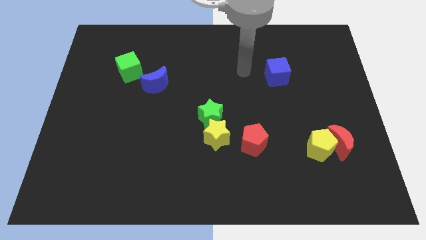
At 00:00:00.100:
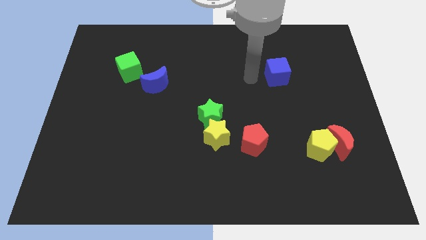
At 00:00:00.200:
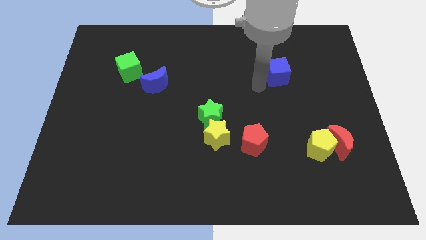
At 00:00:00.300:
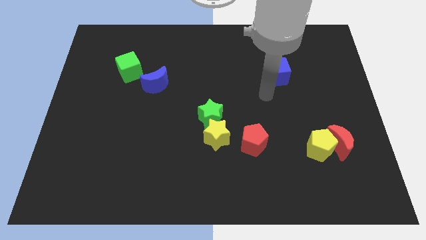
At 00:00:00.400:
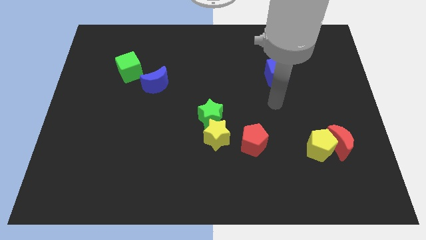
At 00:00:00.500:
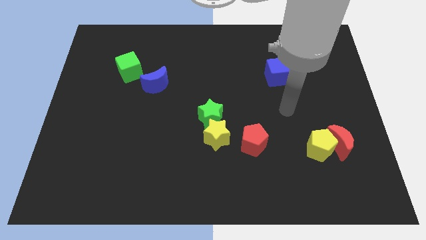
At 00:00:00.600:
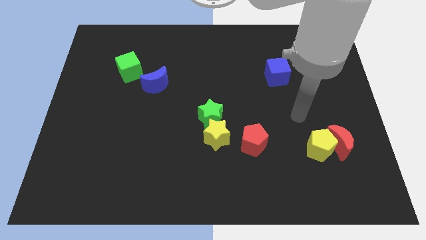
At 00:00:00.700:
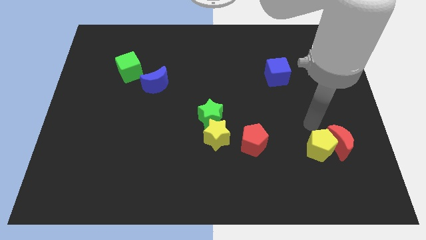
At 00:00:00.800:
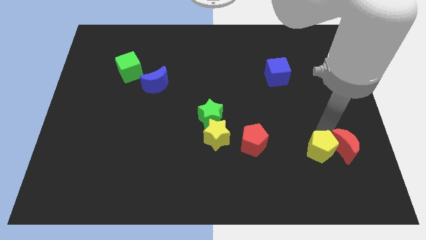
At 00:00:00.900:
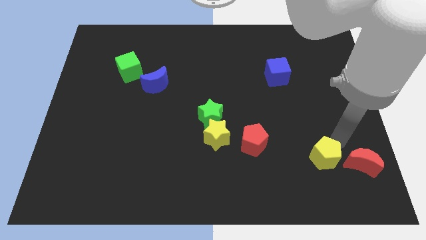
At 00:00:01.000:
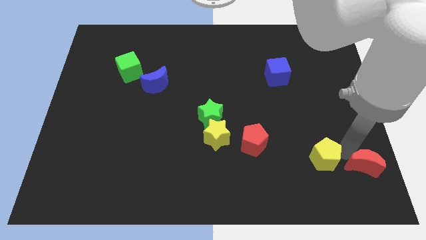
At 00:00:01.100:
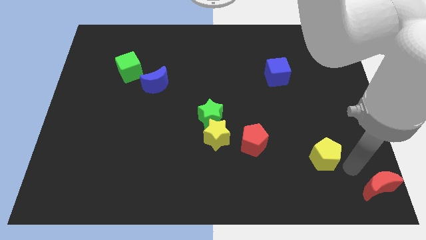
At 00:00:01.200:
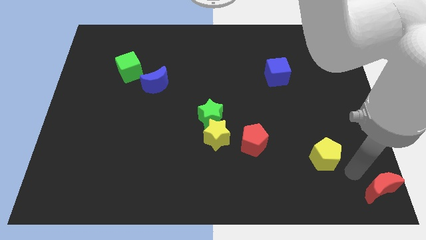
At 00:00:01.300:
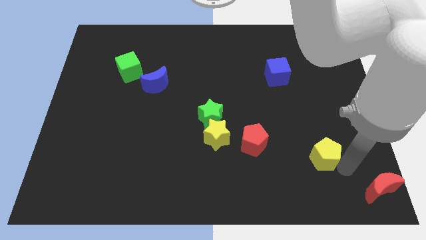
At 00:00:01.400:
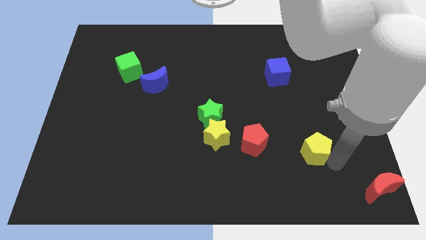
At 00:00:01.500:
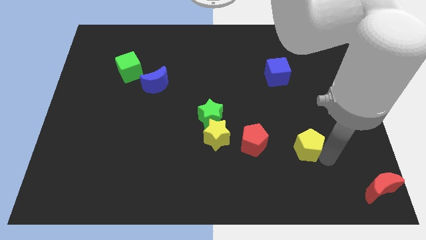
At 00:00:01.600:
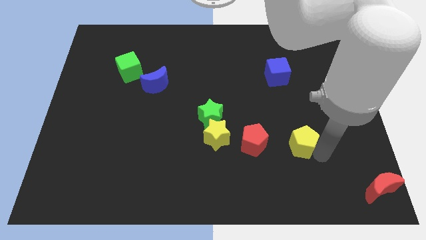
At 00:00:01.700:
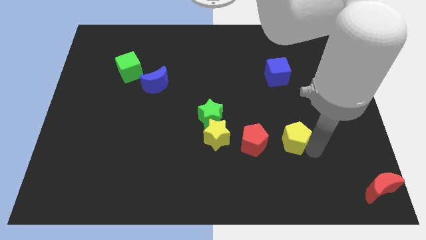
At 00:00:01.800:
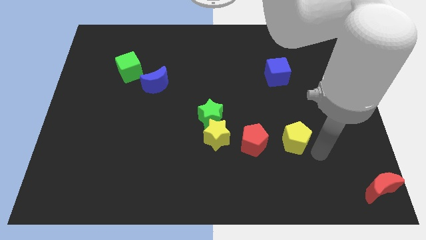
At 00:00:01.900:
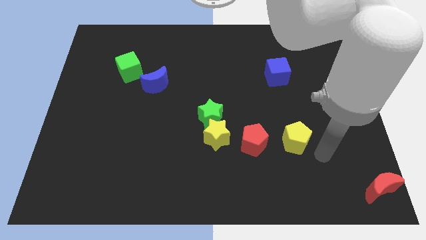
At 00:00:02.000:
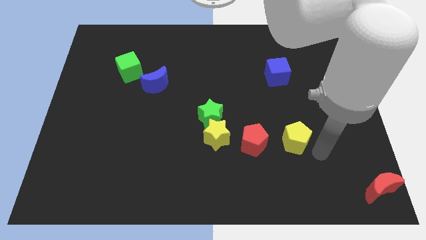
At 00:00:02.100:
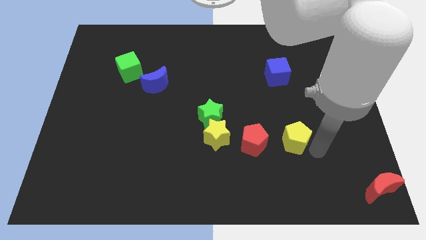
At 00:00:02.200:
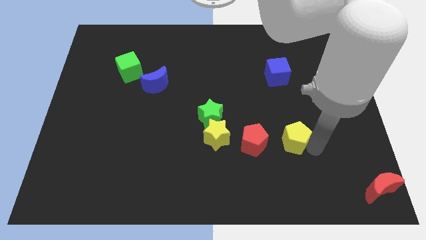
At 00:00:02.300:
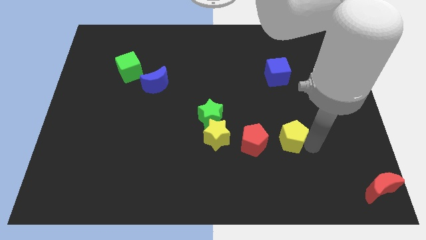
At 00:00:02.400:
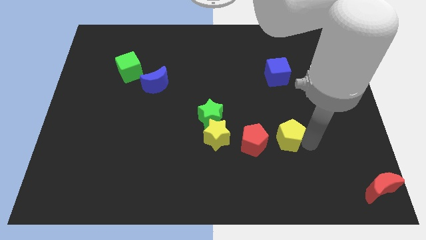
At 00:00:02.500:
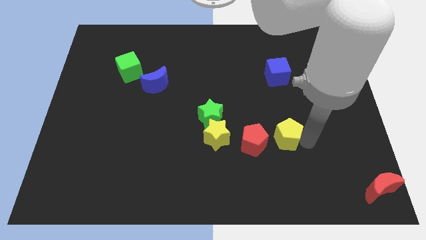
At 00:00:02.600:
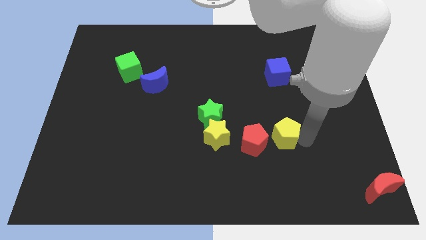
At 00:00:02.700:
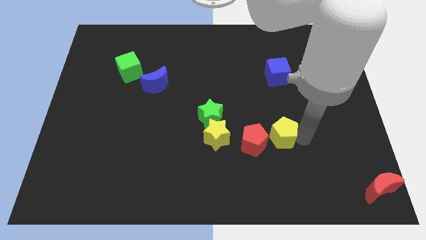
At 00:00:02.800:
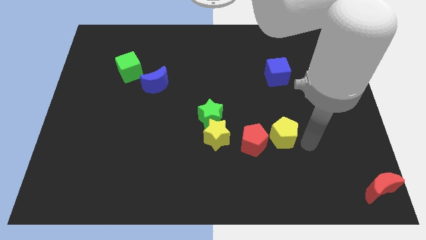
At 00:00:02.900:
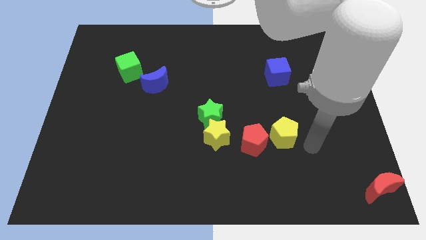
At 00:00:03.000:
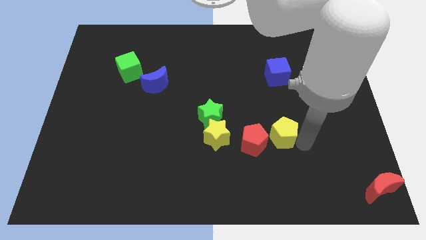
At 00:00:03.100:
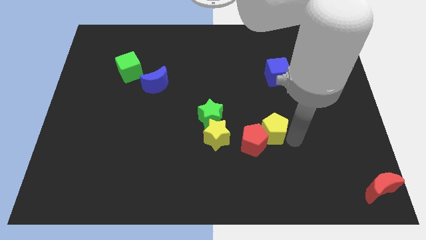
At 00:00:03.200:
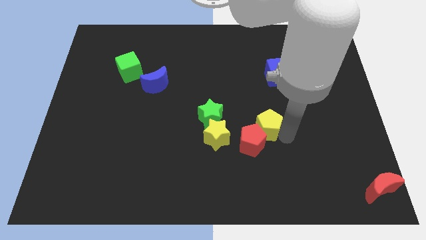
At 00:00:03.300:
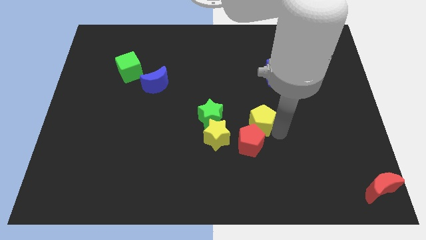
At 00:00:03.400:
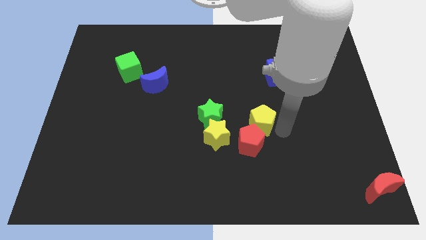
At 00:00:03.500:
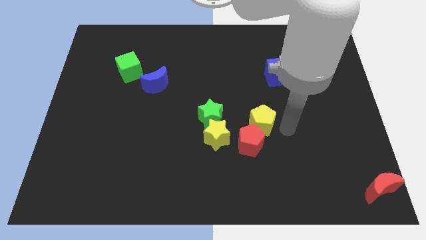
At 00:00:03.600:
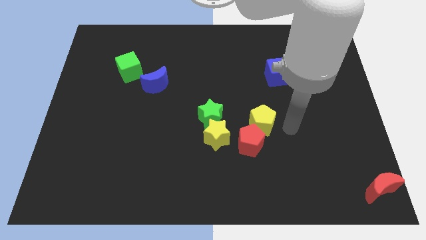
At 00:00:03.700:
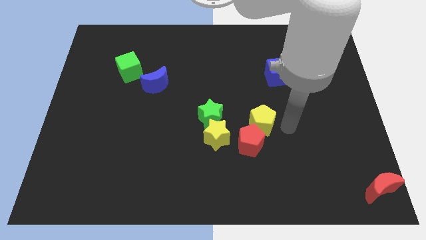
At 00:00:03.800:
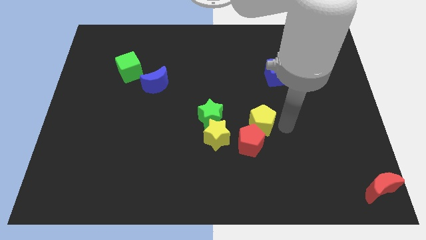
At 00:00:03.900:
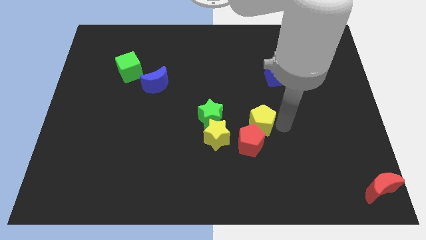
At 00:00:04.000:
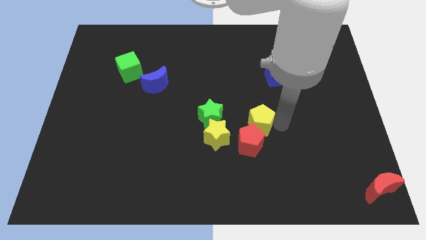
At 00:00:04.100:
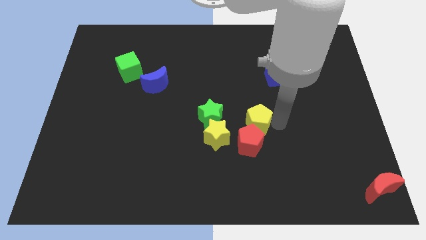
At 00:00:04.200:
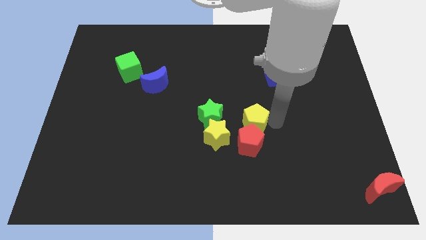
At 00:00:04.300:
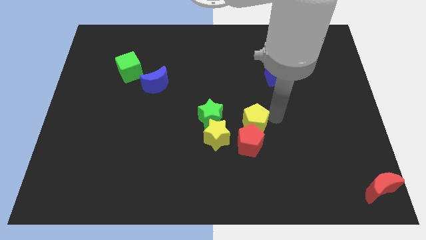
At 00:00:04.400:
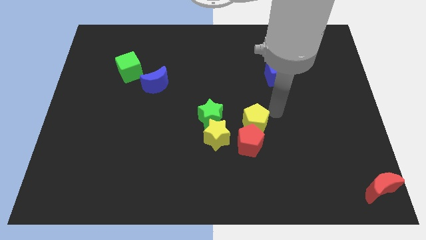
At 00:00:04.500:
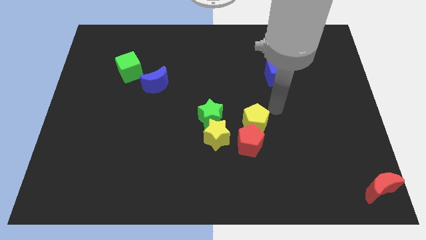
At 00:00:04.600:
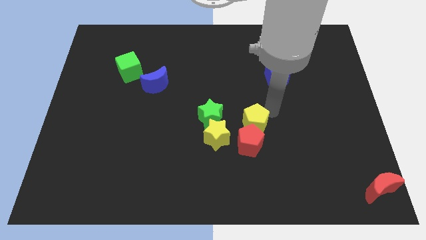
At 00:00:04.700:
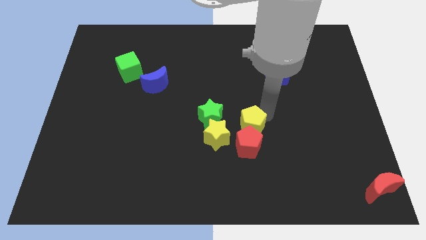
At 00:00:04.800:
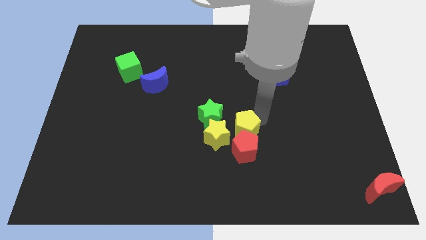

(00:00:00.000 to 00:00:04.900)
move the yellow pentagon diagonally down and to the right of the green star

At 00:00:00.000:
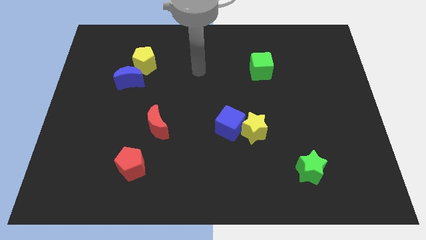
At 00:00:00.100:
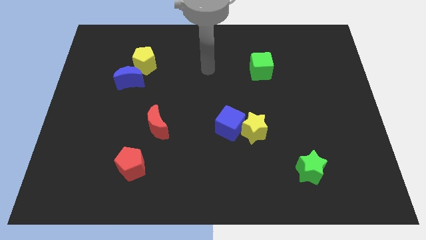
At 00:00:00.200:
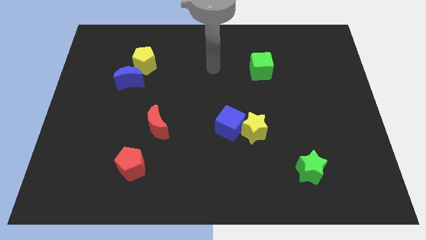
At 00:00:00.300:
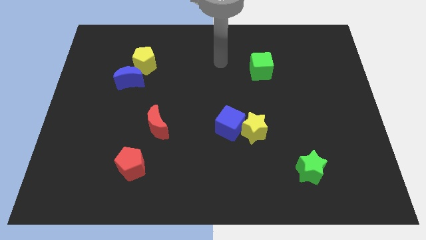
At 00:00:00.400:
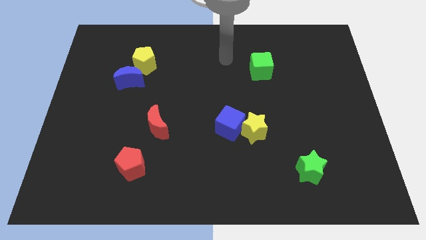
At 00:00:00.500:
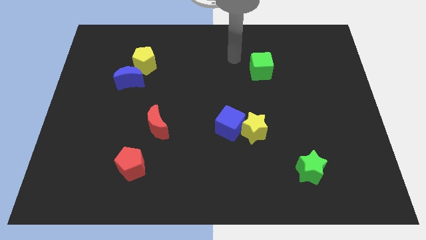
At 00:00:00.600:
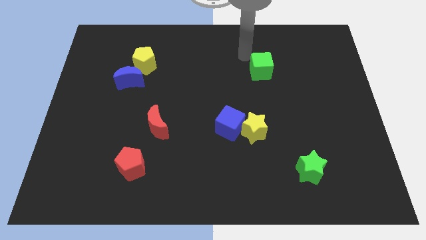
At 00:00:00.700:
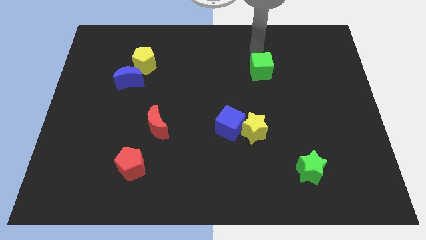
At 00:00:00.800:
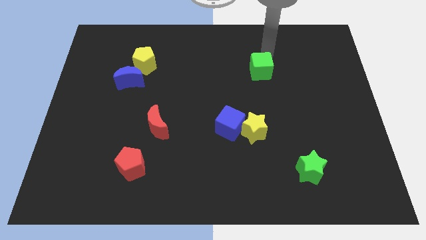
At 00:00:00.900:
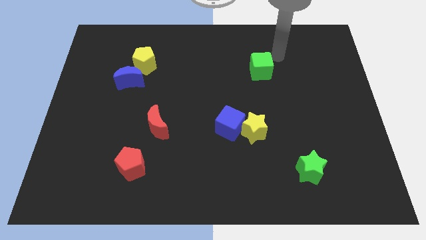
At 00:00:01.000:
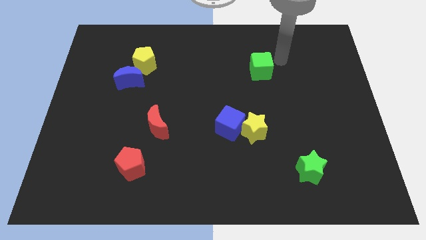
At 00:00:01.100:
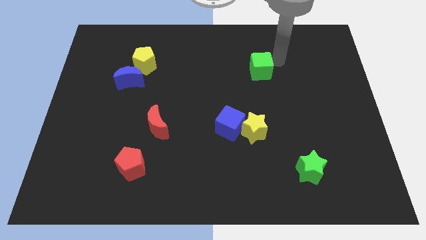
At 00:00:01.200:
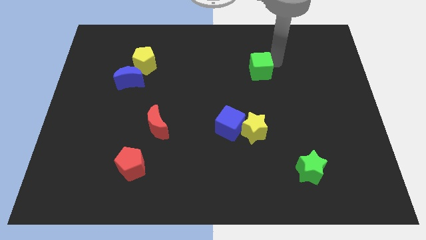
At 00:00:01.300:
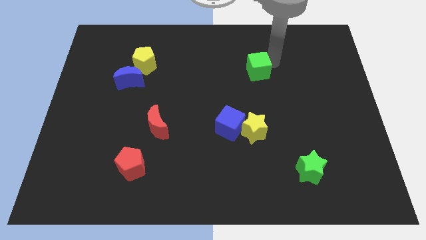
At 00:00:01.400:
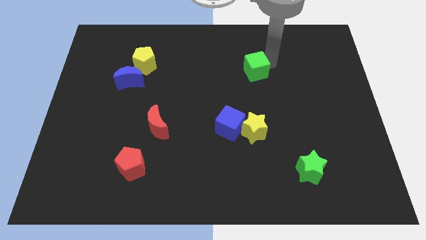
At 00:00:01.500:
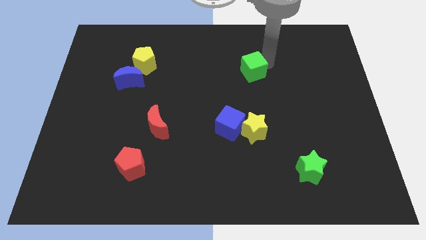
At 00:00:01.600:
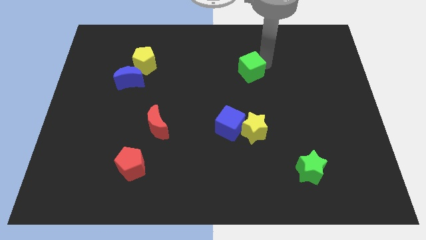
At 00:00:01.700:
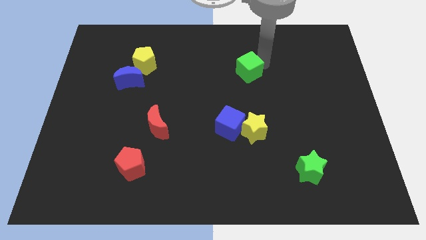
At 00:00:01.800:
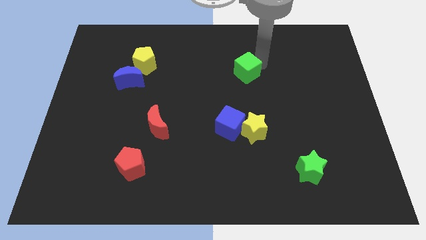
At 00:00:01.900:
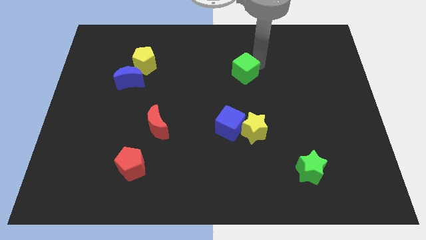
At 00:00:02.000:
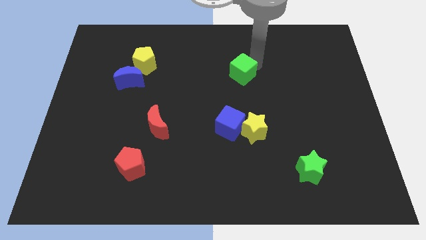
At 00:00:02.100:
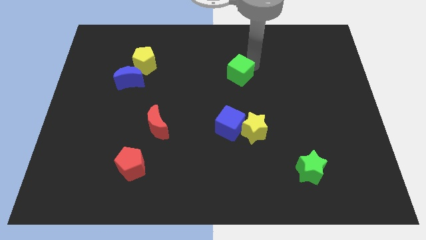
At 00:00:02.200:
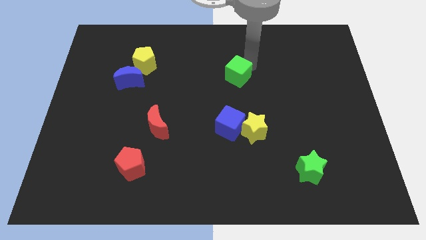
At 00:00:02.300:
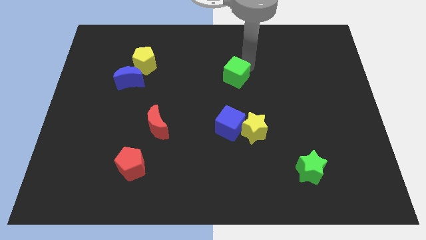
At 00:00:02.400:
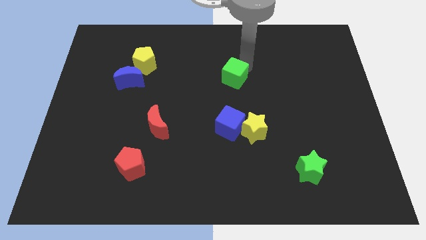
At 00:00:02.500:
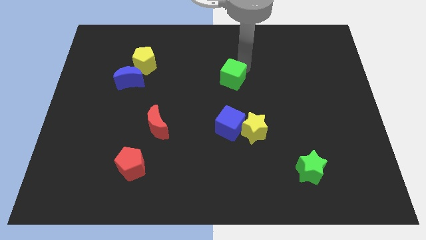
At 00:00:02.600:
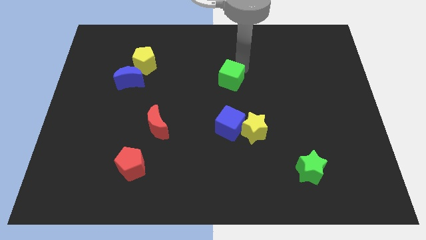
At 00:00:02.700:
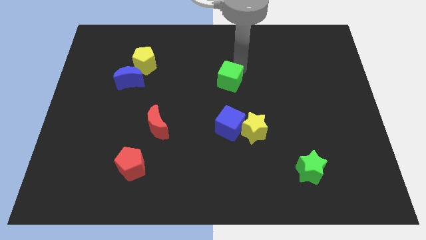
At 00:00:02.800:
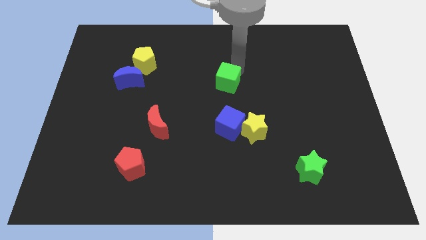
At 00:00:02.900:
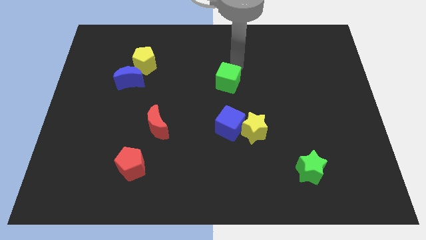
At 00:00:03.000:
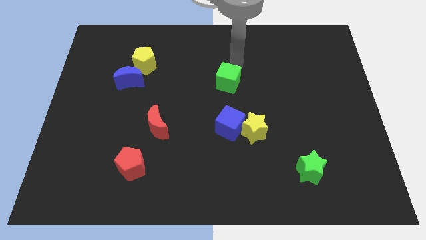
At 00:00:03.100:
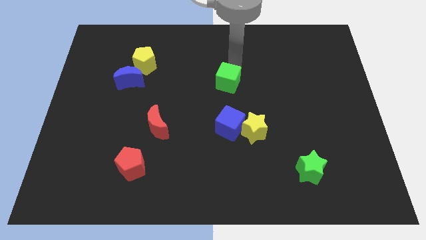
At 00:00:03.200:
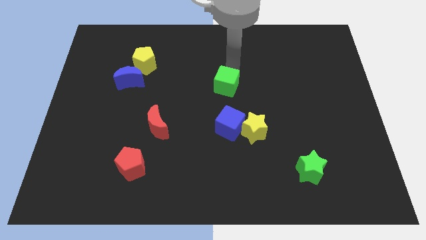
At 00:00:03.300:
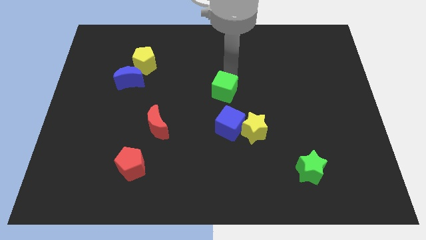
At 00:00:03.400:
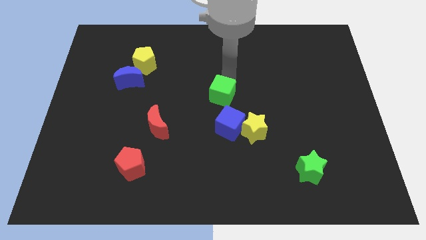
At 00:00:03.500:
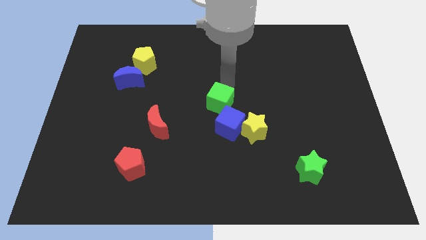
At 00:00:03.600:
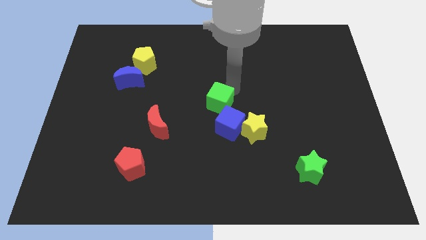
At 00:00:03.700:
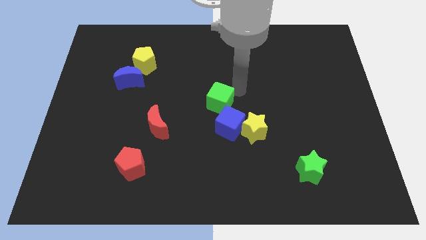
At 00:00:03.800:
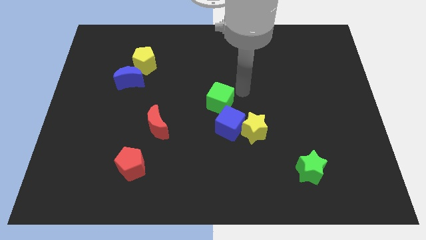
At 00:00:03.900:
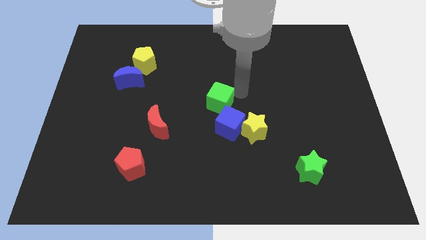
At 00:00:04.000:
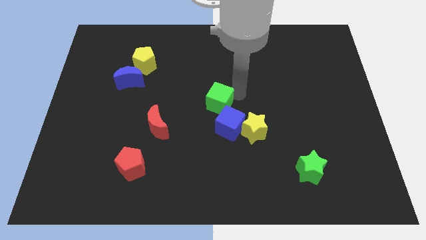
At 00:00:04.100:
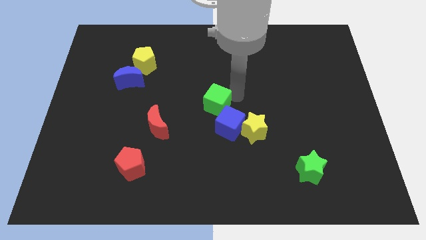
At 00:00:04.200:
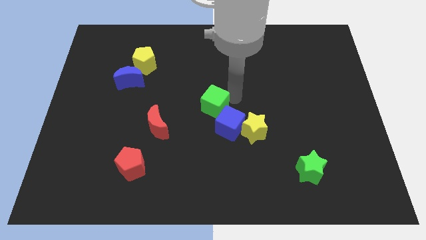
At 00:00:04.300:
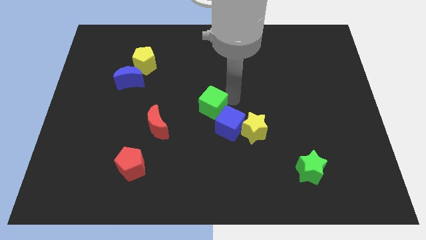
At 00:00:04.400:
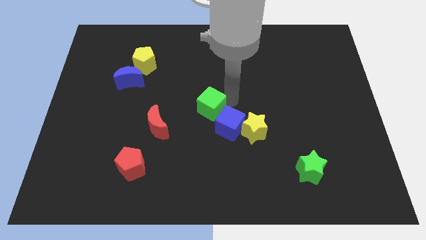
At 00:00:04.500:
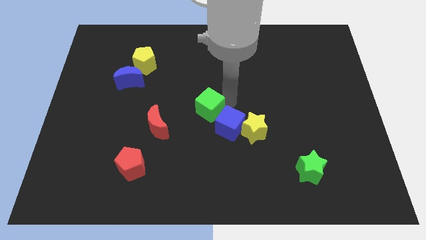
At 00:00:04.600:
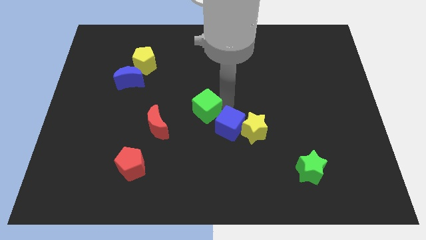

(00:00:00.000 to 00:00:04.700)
put the green cube to the left of the blue cube
